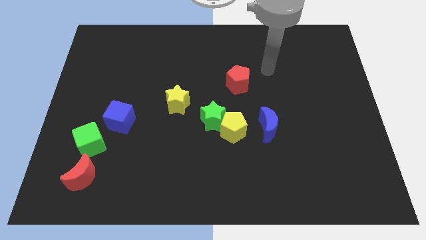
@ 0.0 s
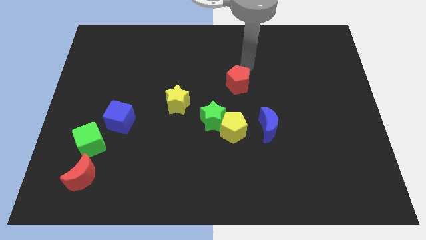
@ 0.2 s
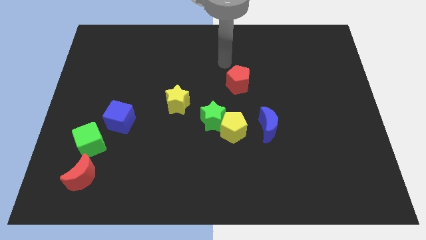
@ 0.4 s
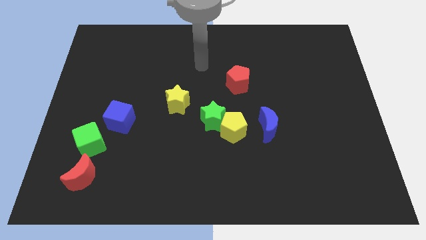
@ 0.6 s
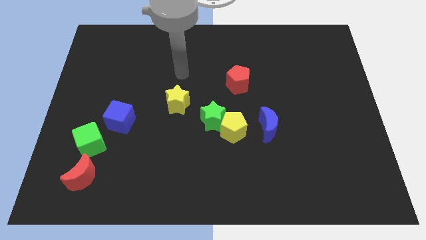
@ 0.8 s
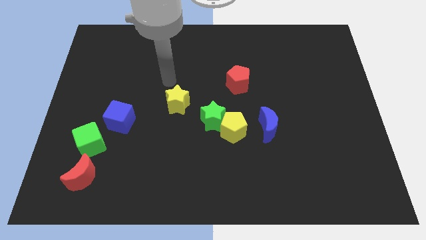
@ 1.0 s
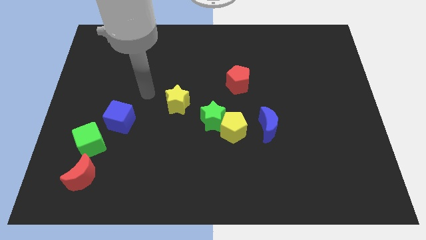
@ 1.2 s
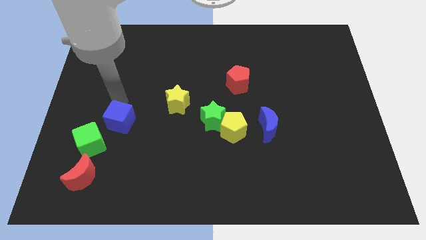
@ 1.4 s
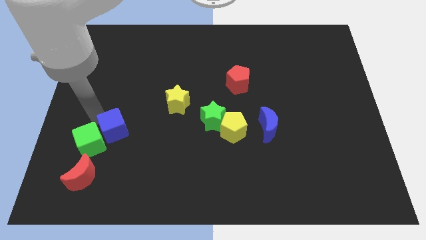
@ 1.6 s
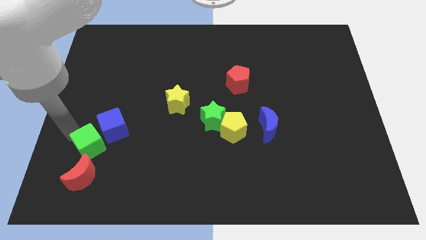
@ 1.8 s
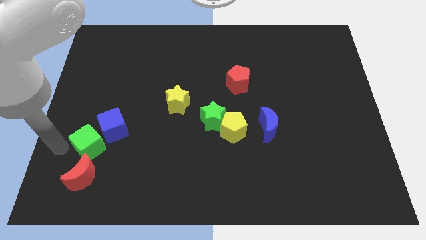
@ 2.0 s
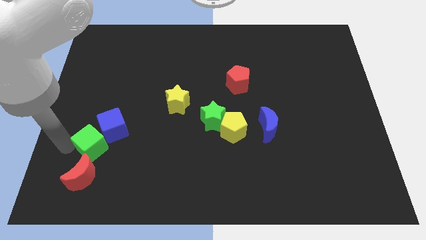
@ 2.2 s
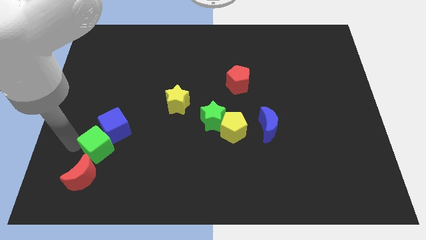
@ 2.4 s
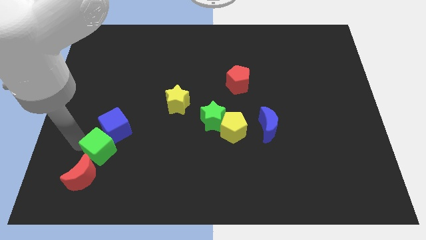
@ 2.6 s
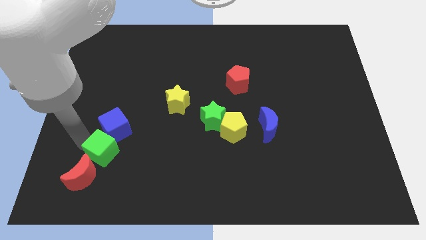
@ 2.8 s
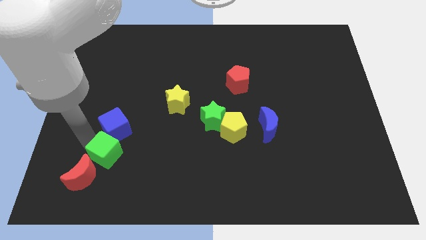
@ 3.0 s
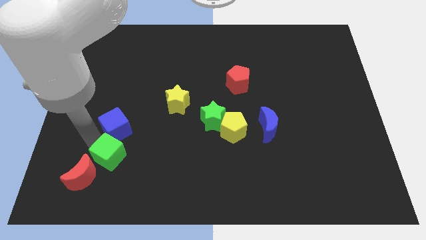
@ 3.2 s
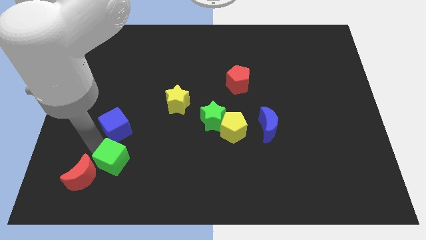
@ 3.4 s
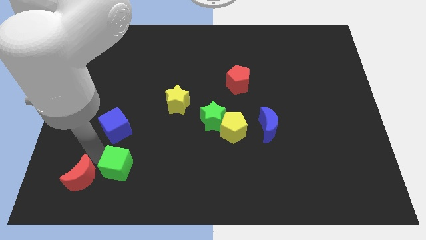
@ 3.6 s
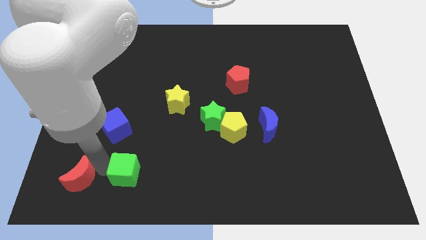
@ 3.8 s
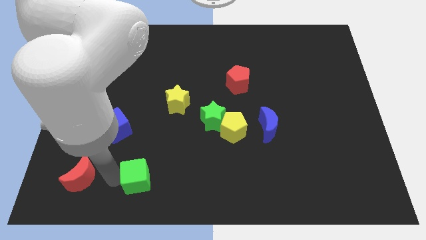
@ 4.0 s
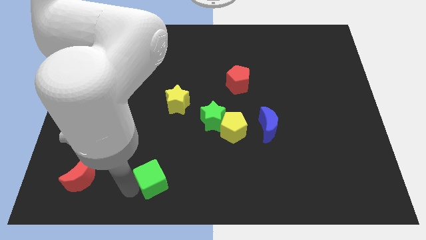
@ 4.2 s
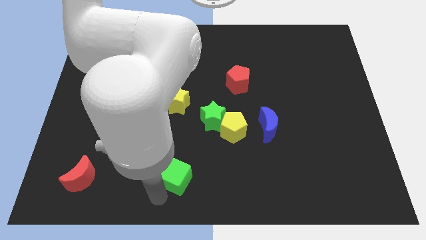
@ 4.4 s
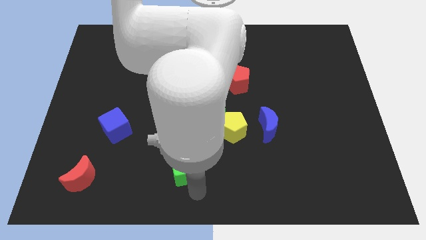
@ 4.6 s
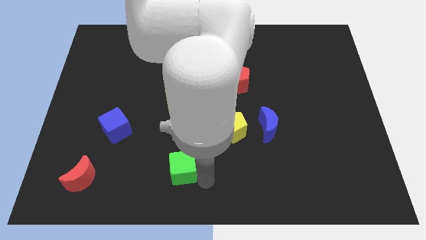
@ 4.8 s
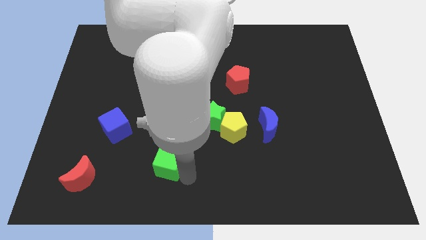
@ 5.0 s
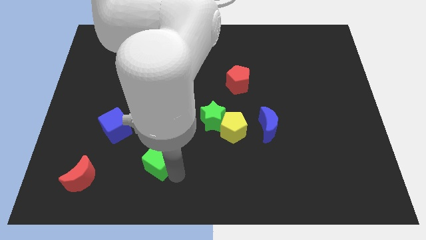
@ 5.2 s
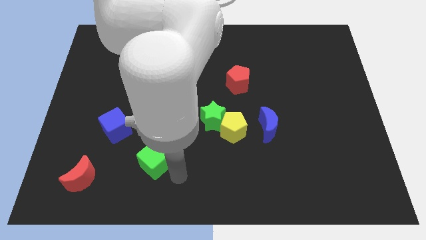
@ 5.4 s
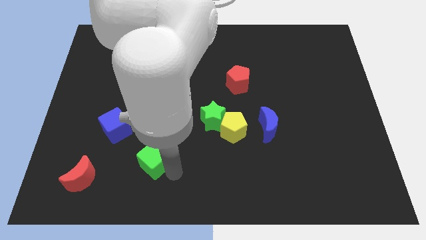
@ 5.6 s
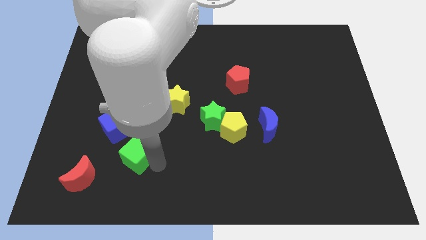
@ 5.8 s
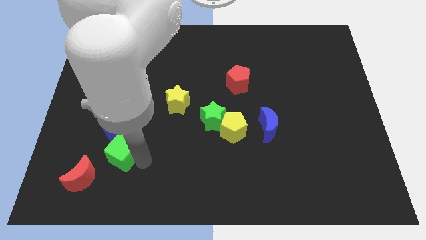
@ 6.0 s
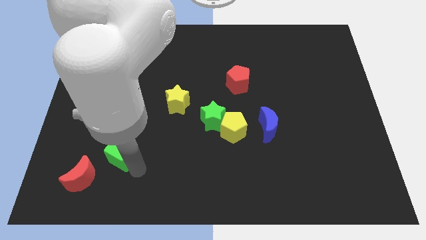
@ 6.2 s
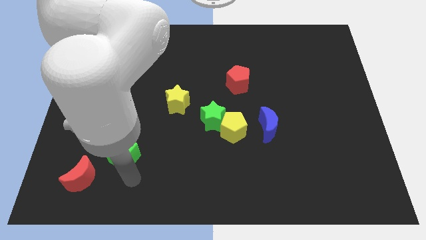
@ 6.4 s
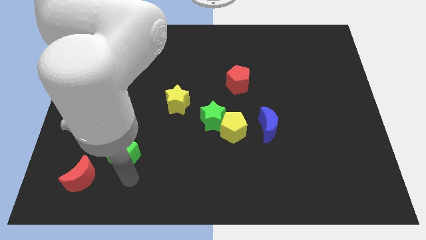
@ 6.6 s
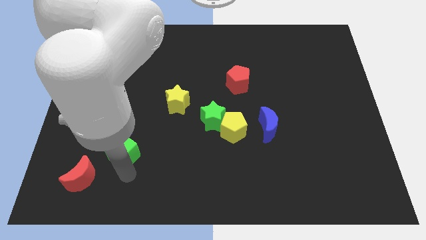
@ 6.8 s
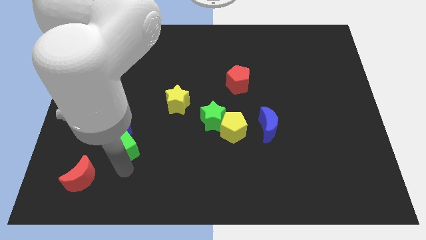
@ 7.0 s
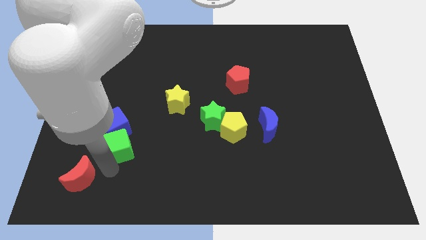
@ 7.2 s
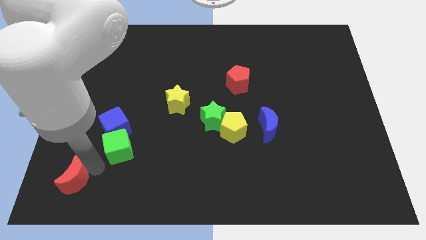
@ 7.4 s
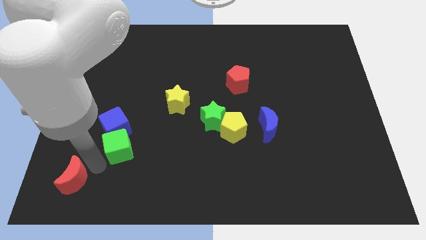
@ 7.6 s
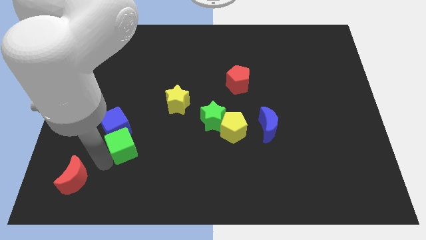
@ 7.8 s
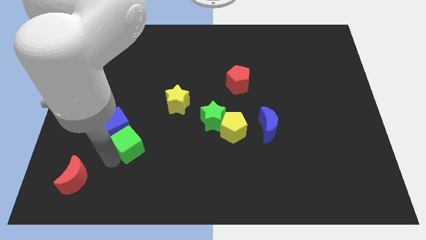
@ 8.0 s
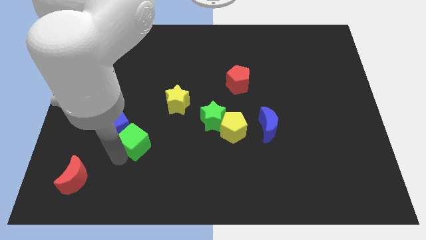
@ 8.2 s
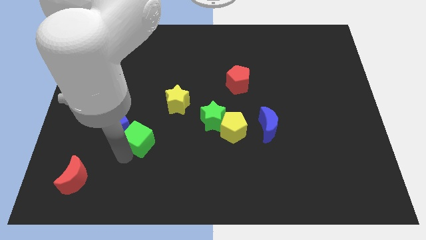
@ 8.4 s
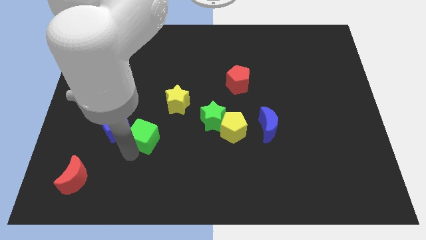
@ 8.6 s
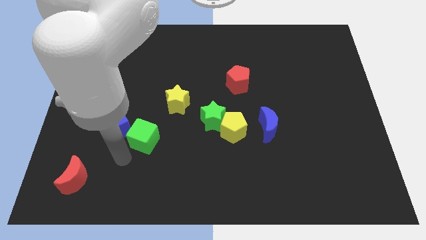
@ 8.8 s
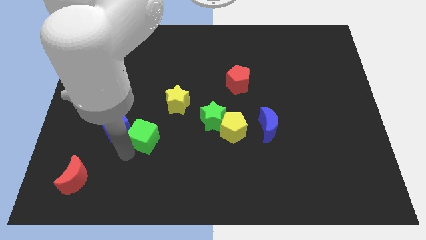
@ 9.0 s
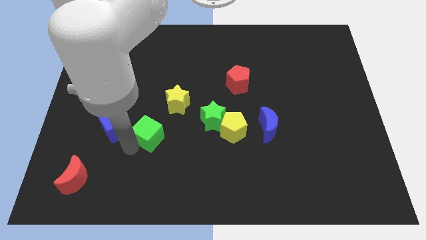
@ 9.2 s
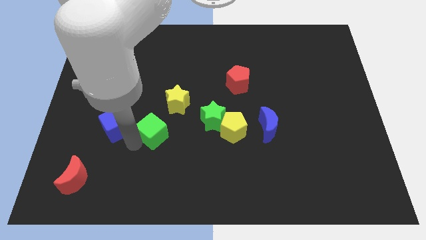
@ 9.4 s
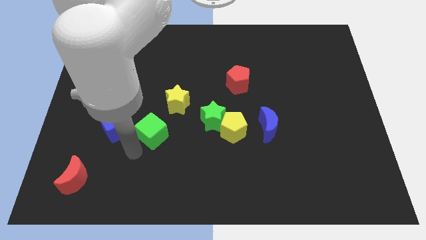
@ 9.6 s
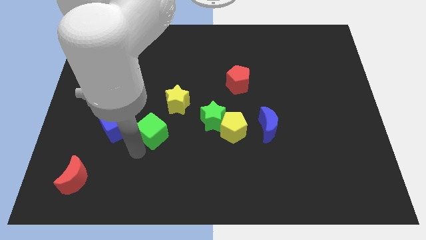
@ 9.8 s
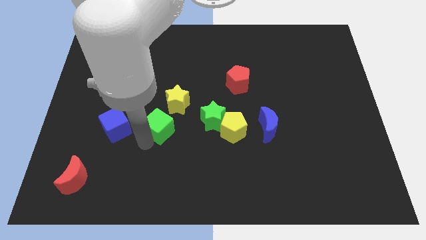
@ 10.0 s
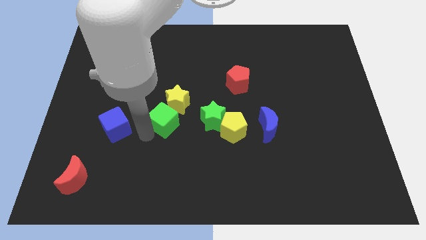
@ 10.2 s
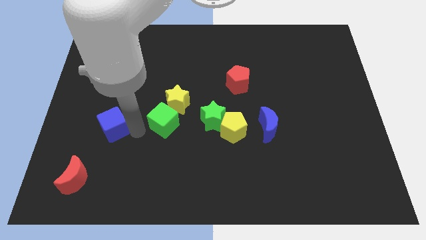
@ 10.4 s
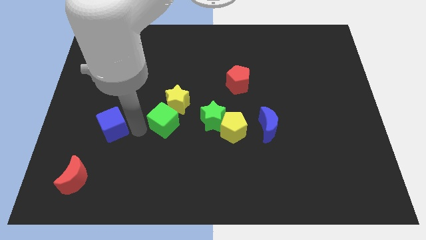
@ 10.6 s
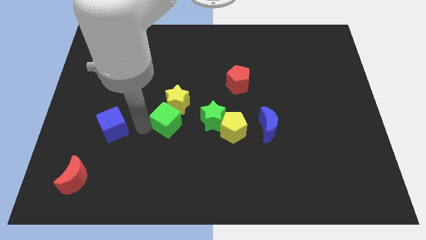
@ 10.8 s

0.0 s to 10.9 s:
push the green cube to the center of the board

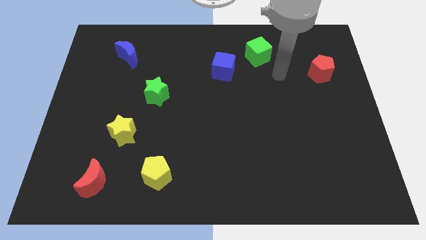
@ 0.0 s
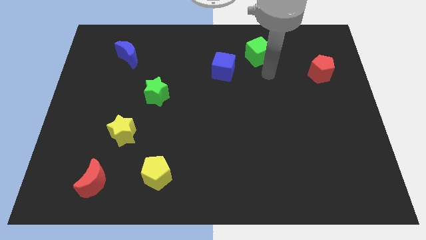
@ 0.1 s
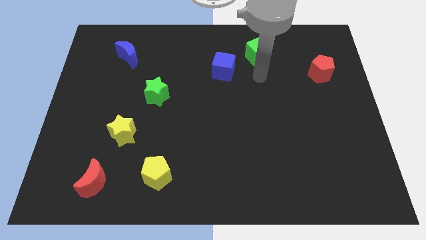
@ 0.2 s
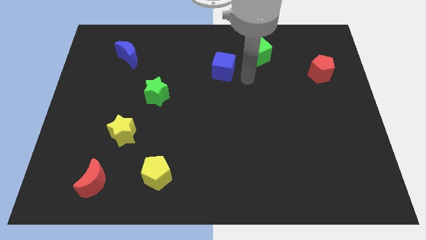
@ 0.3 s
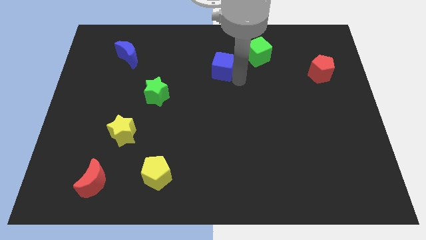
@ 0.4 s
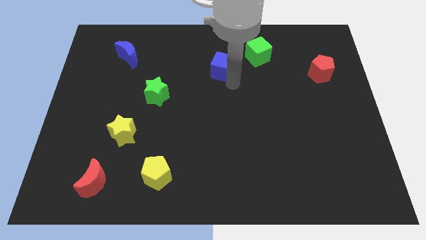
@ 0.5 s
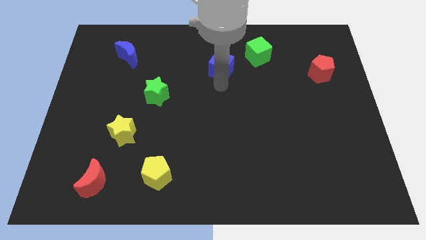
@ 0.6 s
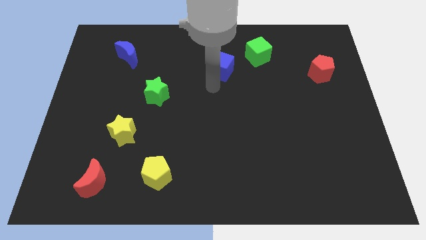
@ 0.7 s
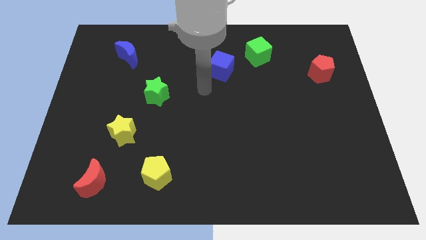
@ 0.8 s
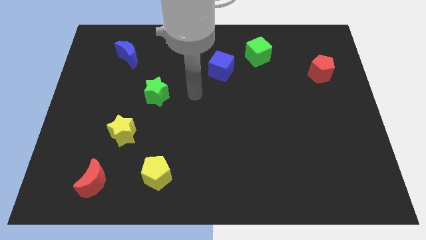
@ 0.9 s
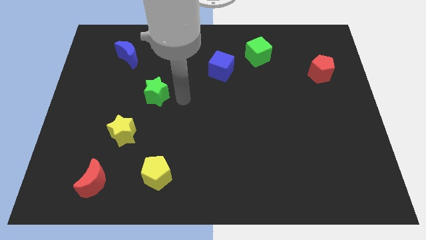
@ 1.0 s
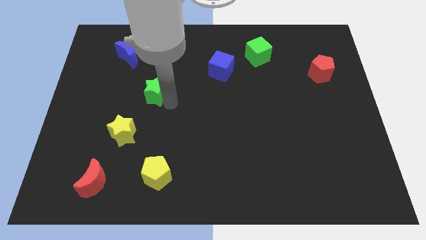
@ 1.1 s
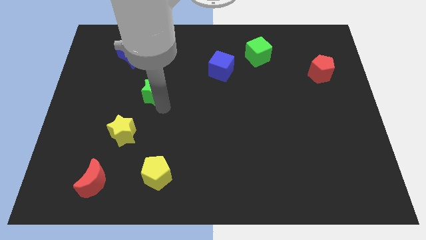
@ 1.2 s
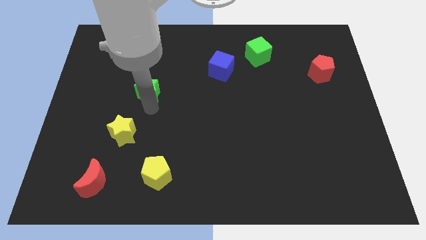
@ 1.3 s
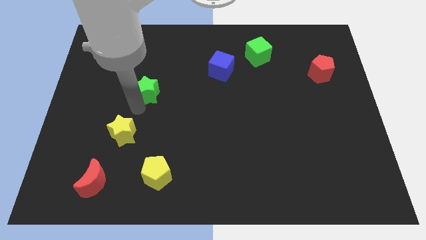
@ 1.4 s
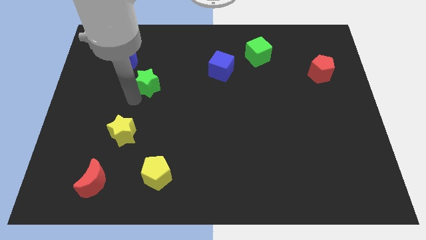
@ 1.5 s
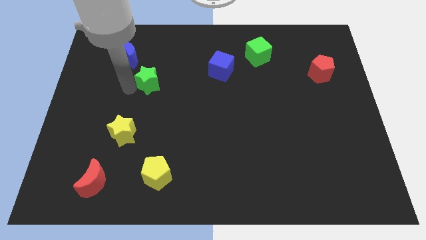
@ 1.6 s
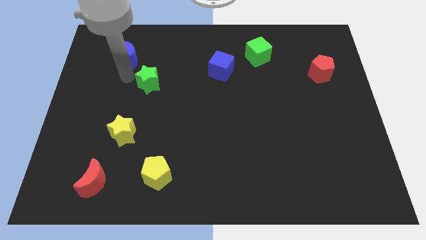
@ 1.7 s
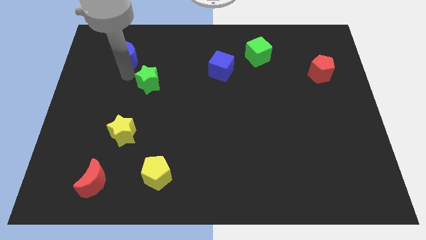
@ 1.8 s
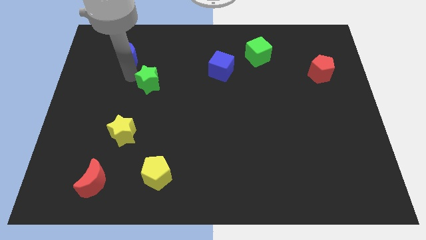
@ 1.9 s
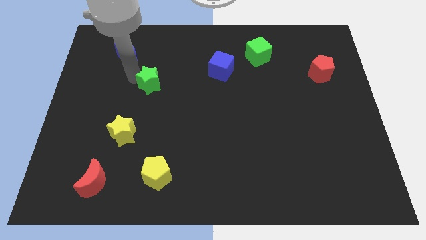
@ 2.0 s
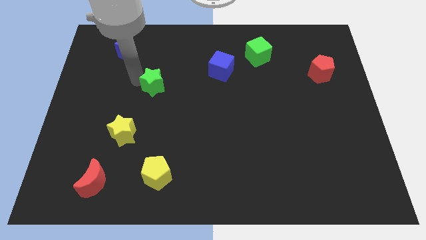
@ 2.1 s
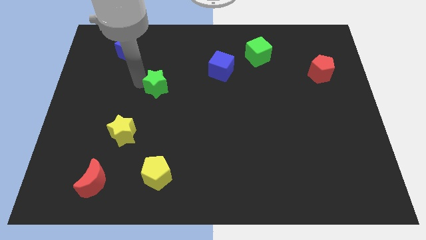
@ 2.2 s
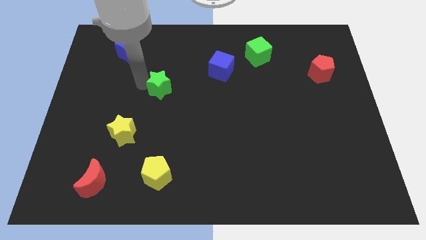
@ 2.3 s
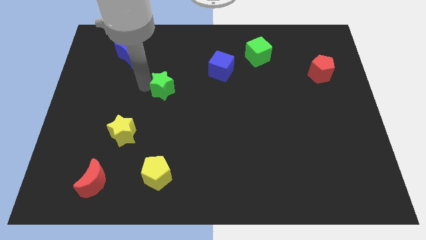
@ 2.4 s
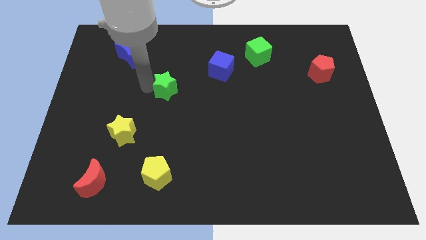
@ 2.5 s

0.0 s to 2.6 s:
push the green star to the center
